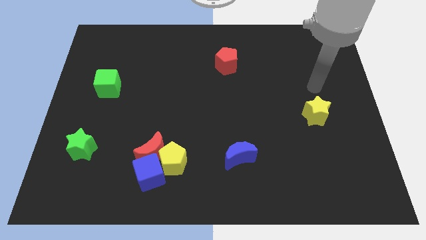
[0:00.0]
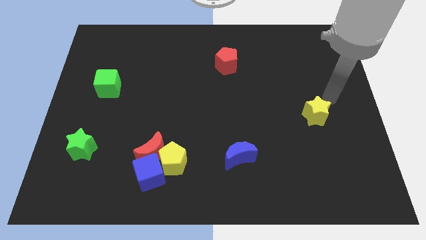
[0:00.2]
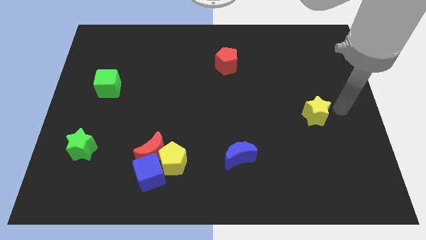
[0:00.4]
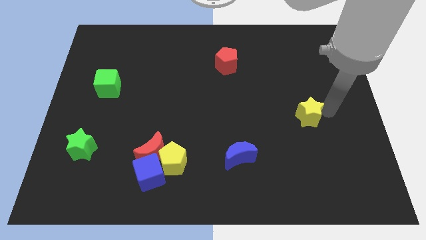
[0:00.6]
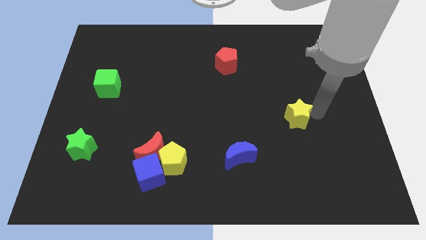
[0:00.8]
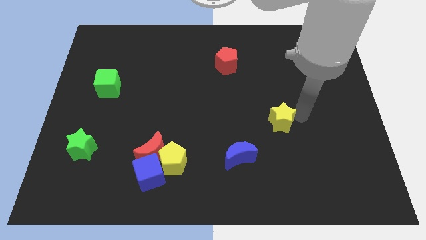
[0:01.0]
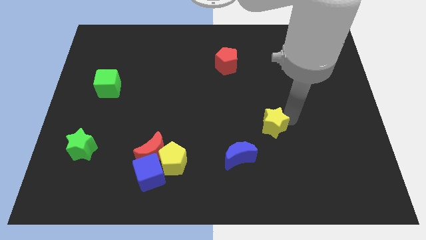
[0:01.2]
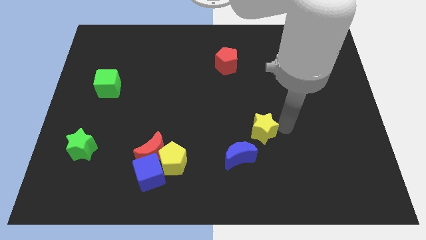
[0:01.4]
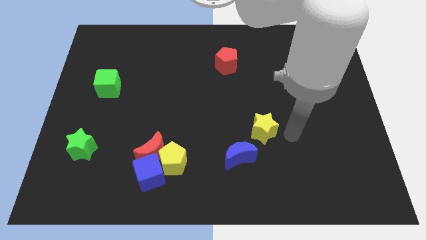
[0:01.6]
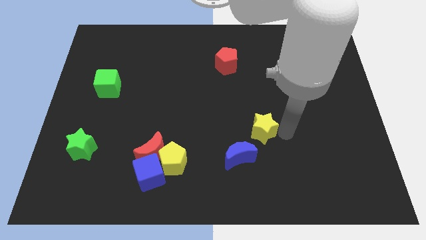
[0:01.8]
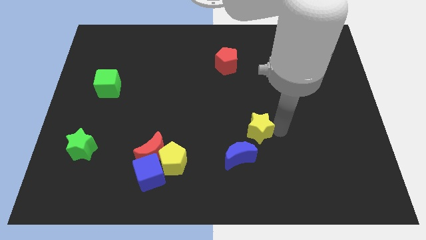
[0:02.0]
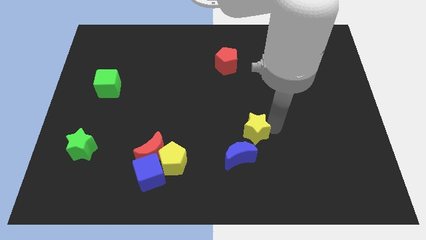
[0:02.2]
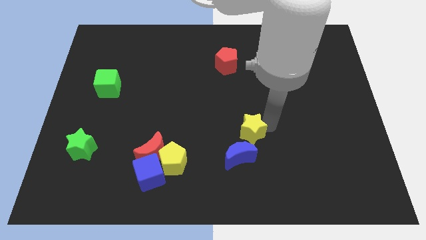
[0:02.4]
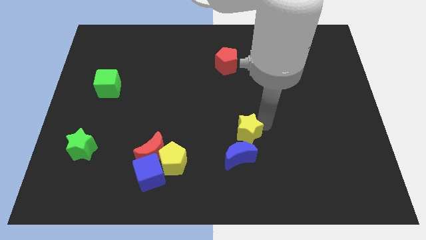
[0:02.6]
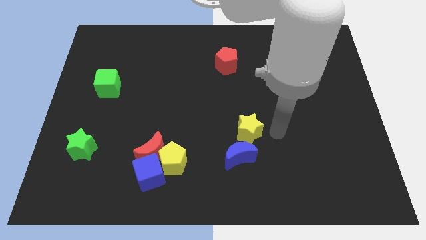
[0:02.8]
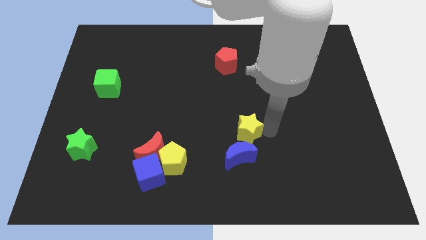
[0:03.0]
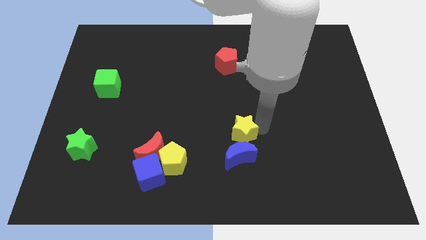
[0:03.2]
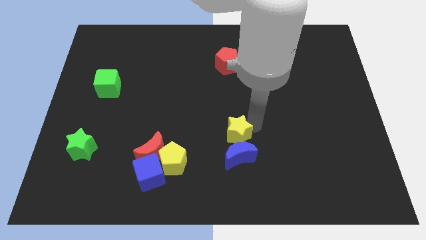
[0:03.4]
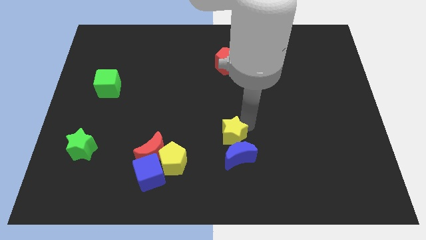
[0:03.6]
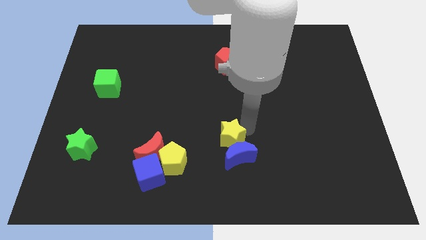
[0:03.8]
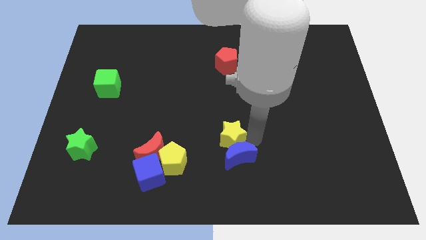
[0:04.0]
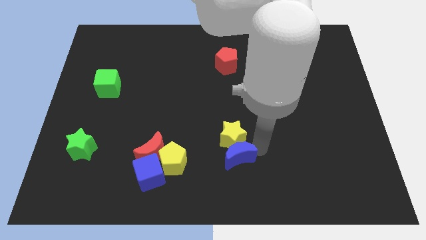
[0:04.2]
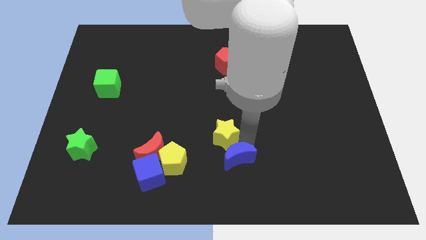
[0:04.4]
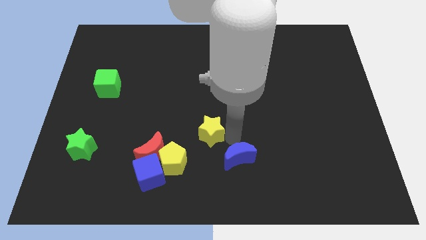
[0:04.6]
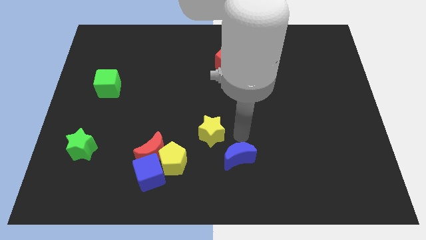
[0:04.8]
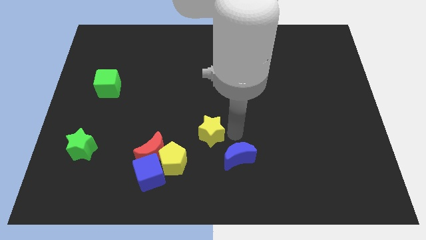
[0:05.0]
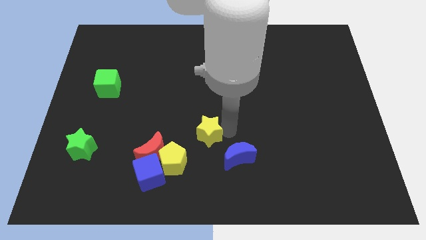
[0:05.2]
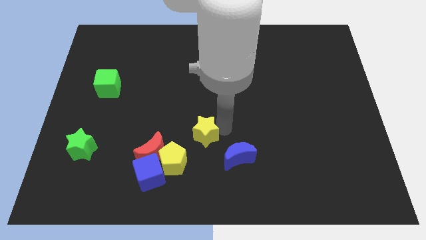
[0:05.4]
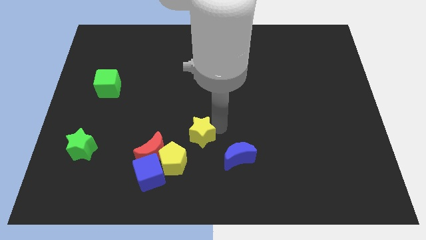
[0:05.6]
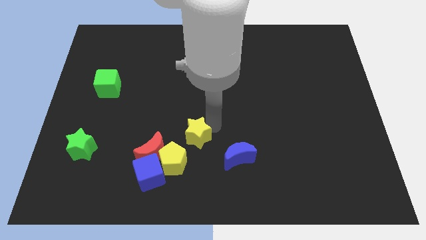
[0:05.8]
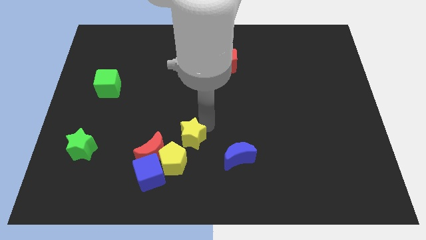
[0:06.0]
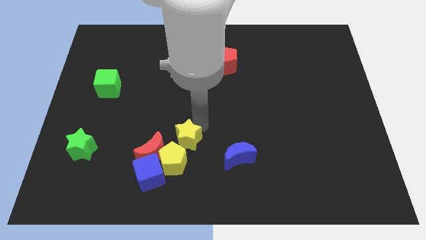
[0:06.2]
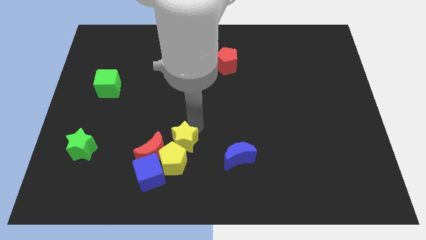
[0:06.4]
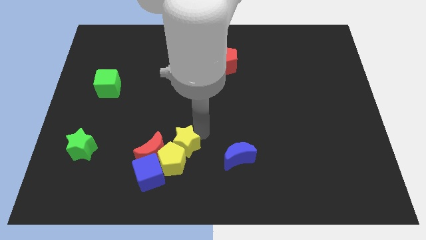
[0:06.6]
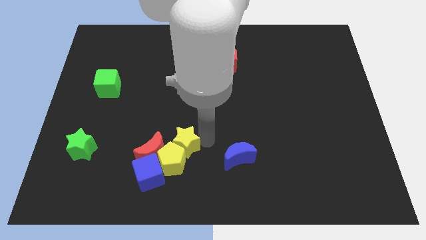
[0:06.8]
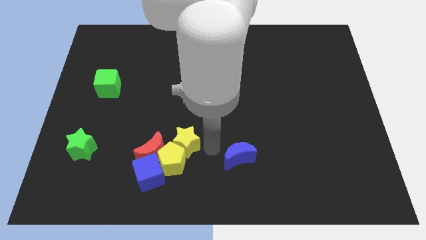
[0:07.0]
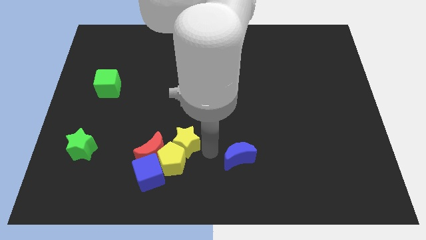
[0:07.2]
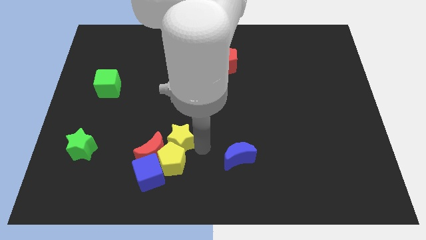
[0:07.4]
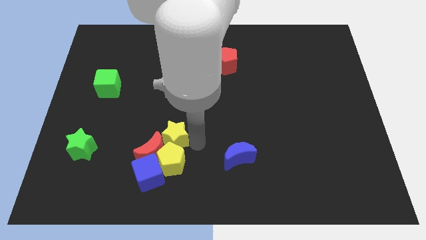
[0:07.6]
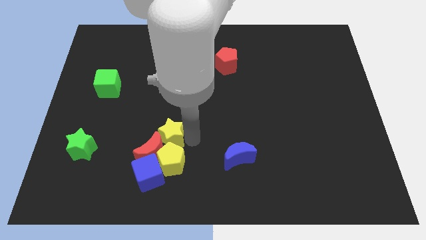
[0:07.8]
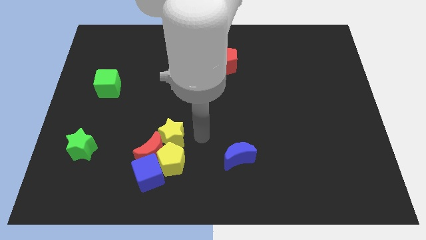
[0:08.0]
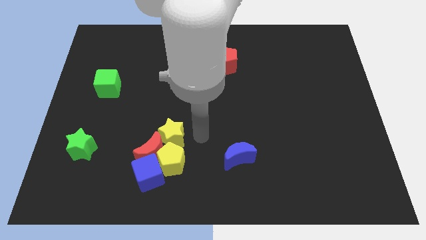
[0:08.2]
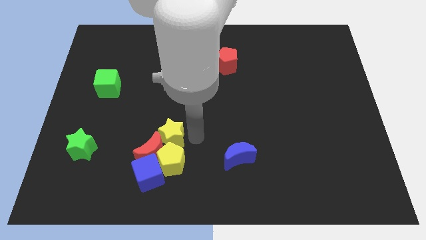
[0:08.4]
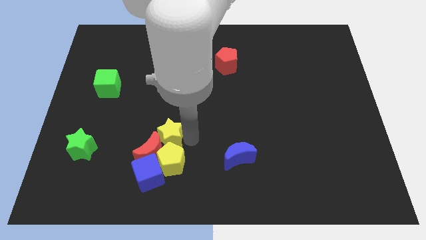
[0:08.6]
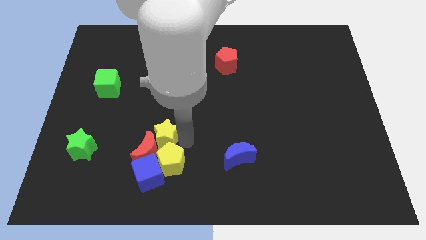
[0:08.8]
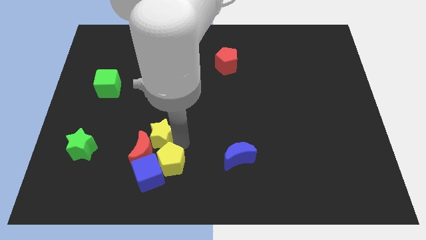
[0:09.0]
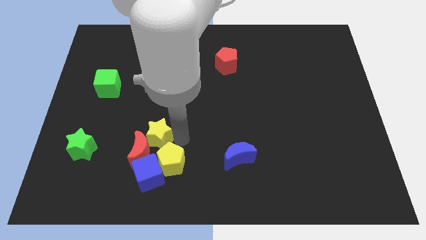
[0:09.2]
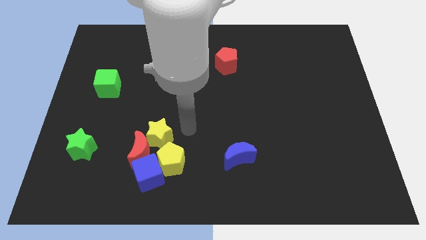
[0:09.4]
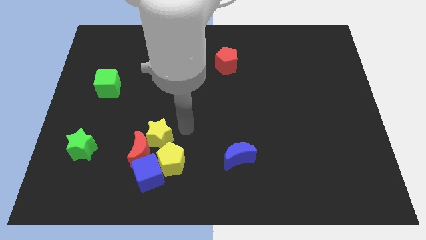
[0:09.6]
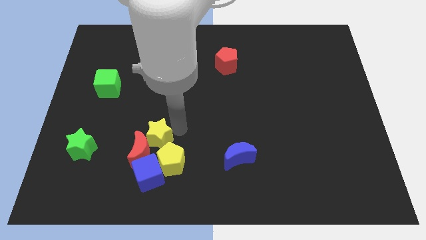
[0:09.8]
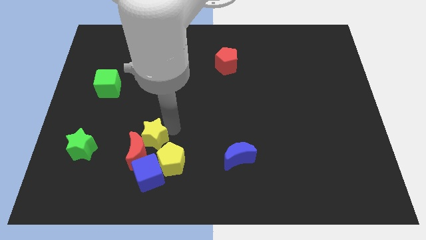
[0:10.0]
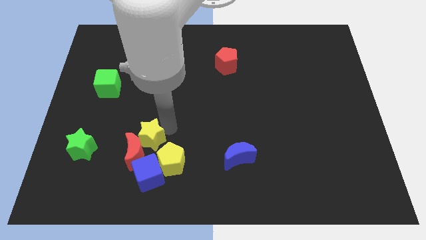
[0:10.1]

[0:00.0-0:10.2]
slide the yellow star just right of the green star

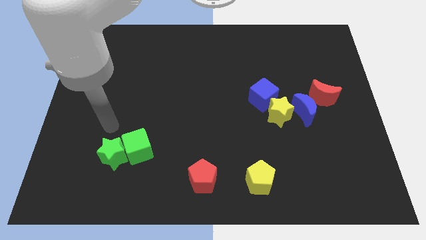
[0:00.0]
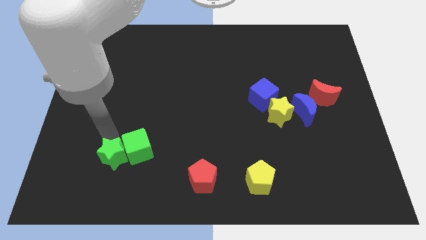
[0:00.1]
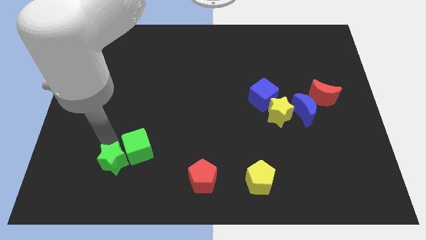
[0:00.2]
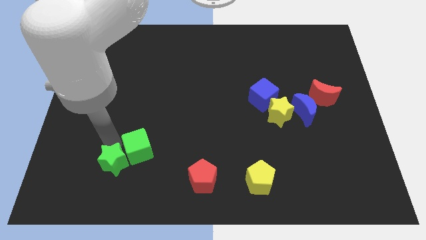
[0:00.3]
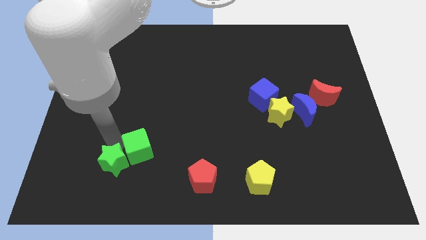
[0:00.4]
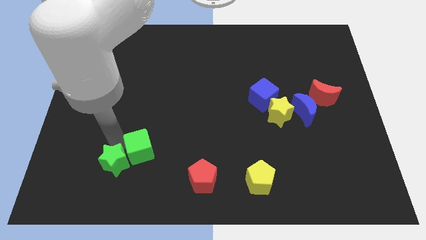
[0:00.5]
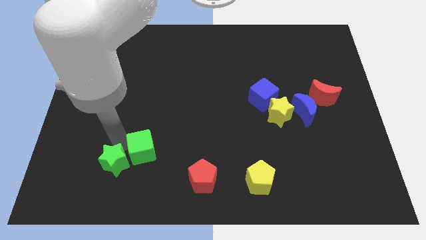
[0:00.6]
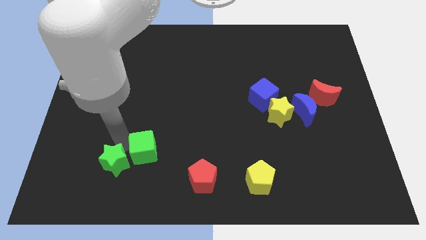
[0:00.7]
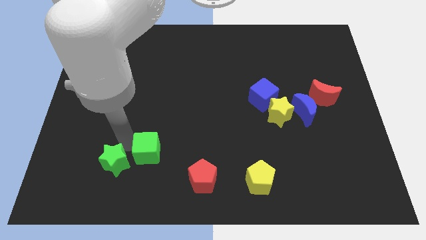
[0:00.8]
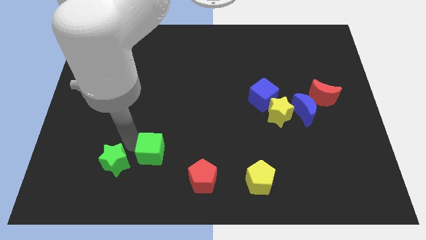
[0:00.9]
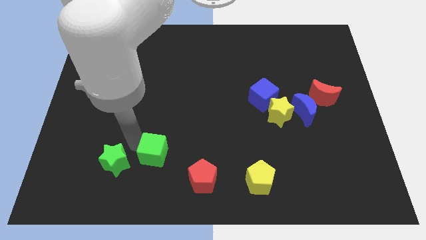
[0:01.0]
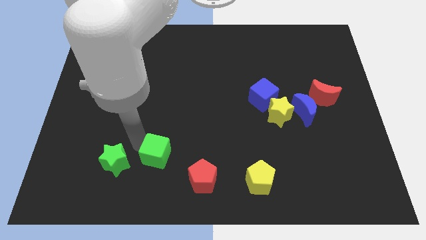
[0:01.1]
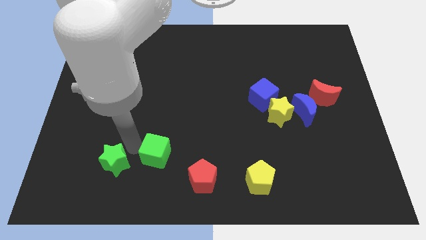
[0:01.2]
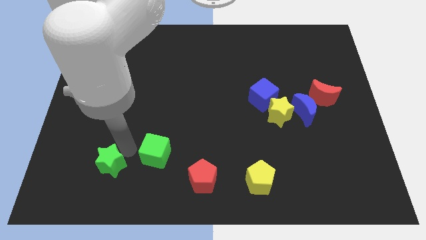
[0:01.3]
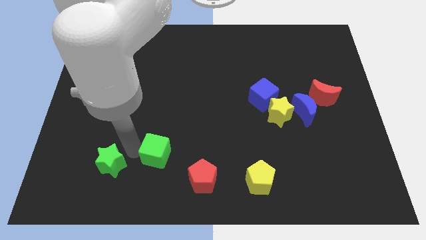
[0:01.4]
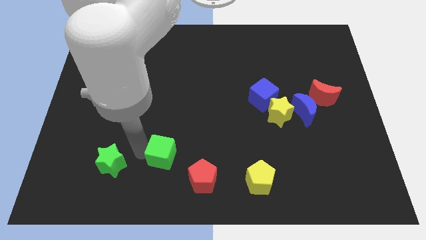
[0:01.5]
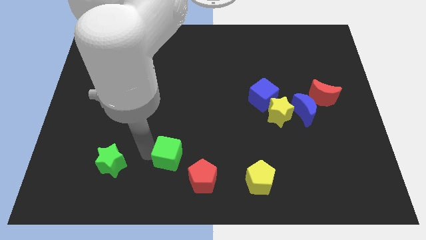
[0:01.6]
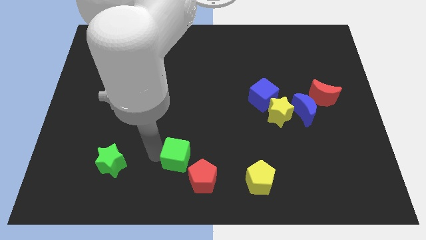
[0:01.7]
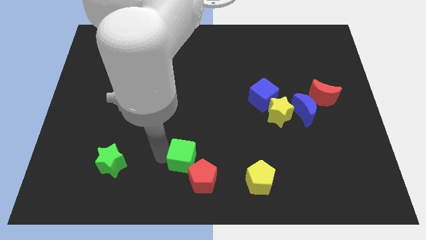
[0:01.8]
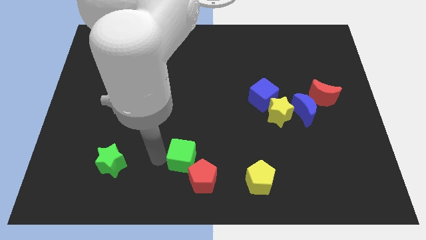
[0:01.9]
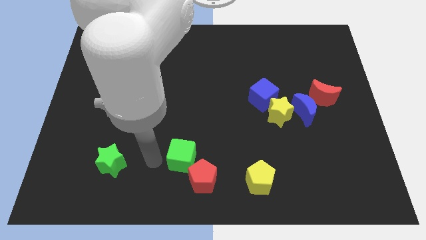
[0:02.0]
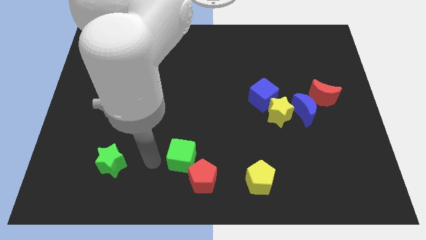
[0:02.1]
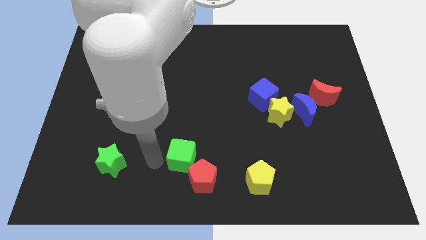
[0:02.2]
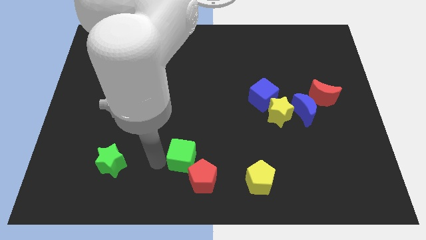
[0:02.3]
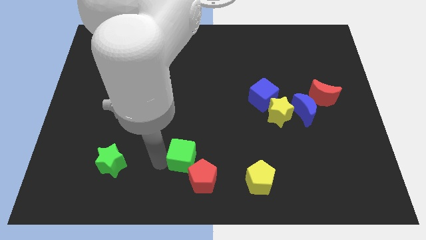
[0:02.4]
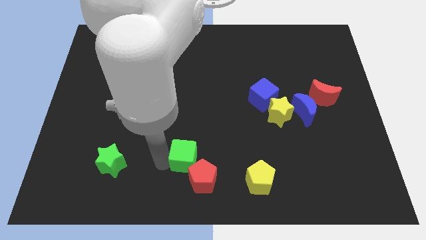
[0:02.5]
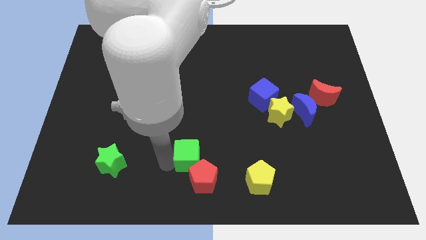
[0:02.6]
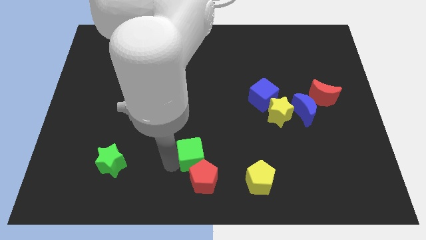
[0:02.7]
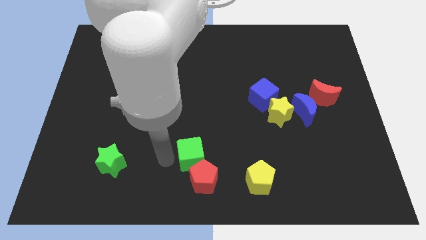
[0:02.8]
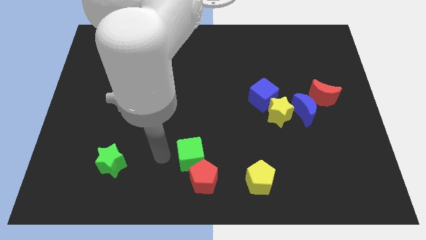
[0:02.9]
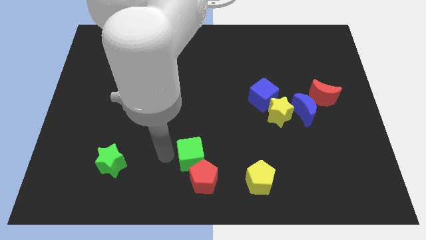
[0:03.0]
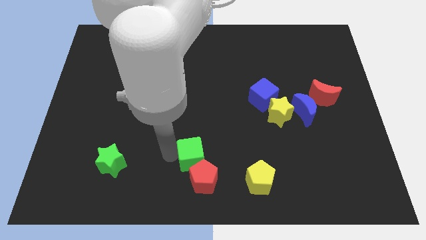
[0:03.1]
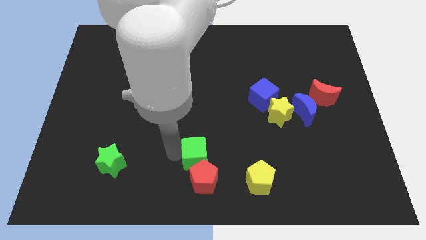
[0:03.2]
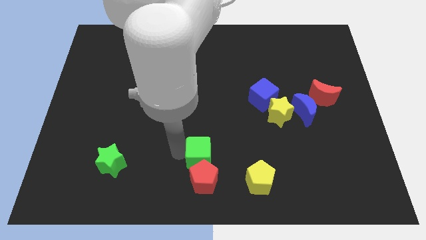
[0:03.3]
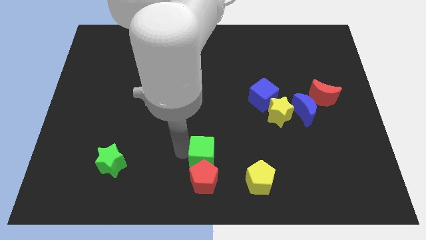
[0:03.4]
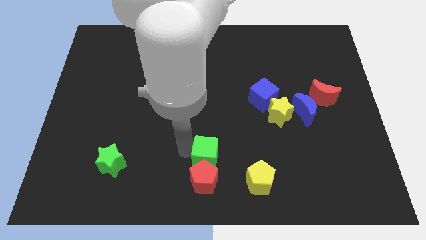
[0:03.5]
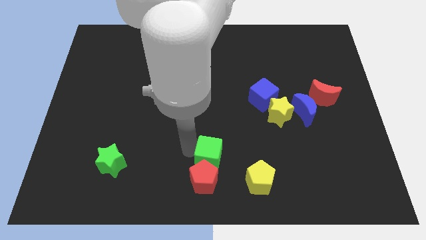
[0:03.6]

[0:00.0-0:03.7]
push the green cube to the top left side of the yellow pentagon
